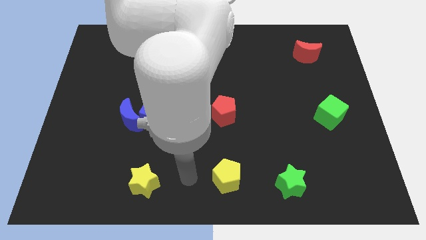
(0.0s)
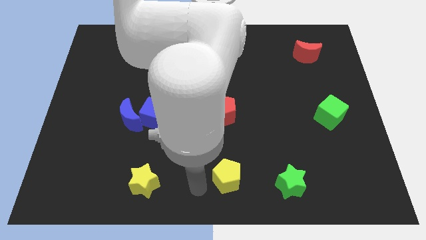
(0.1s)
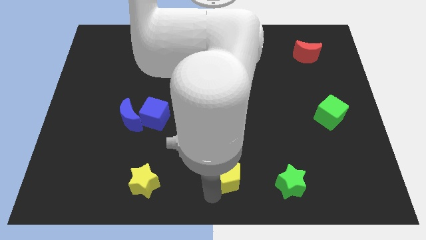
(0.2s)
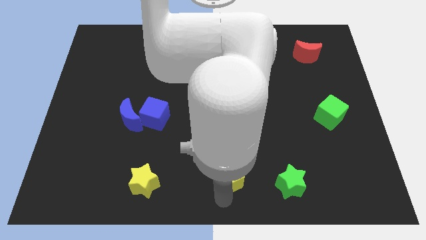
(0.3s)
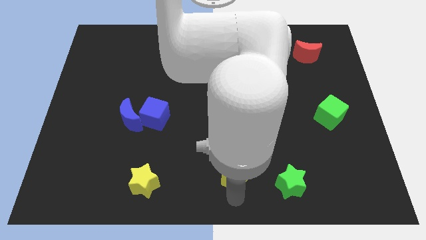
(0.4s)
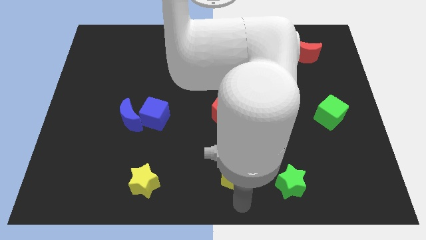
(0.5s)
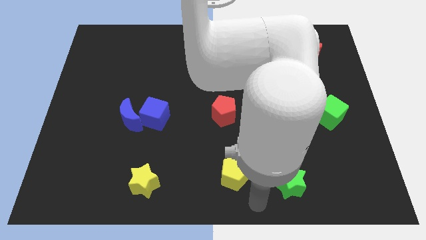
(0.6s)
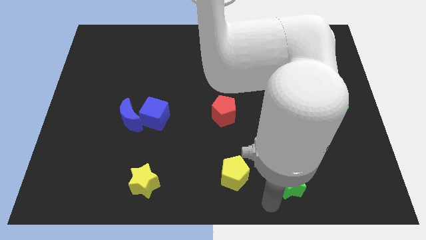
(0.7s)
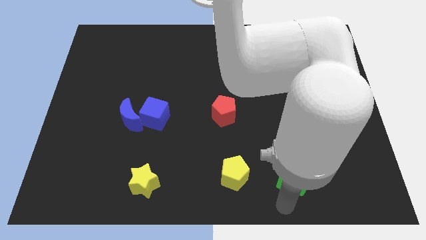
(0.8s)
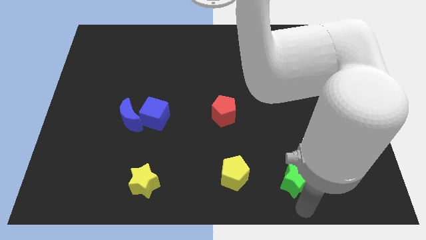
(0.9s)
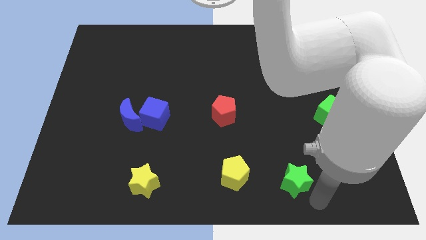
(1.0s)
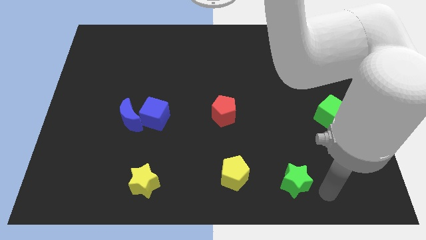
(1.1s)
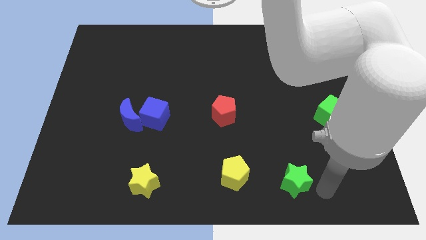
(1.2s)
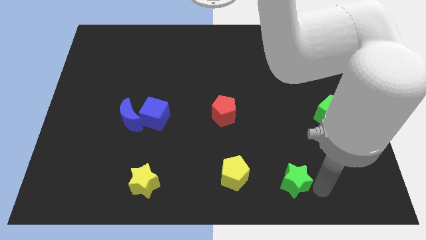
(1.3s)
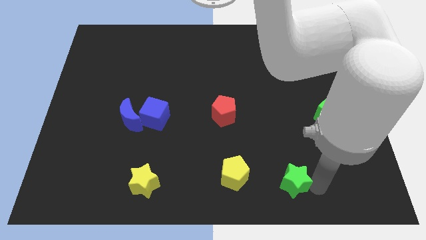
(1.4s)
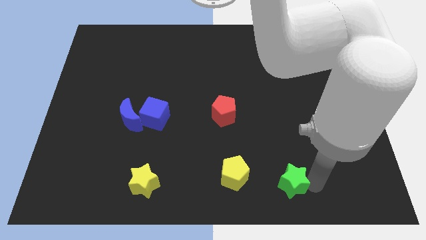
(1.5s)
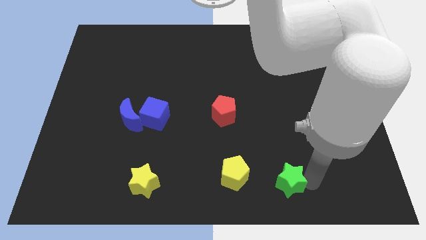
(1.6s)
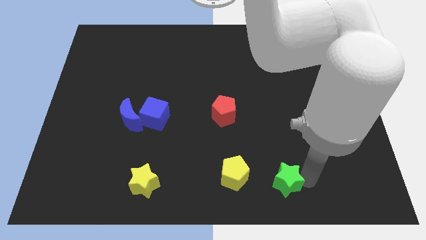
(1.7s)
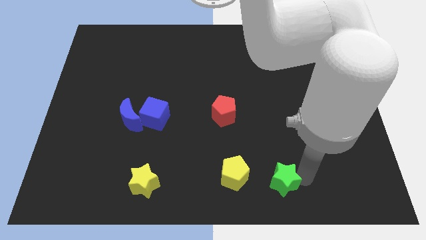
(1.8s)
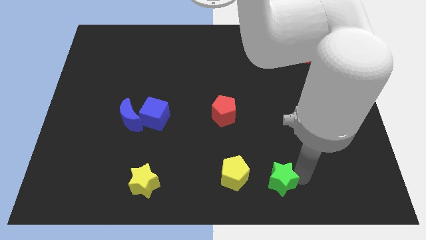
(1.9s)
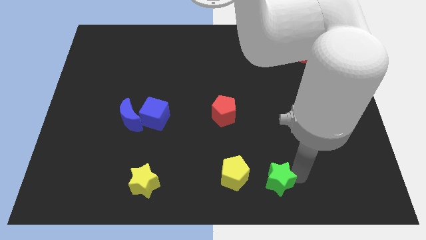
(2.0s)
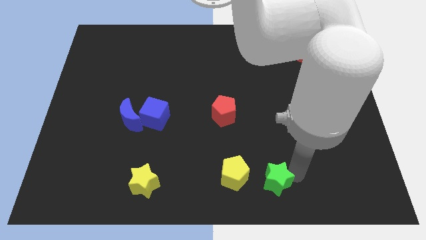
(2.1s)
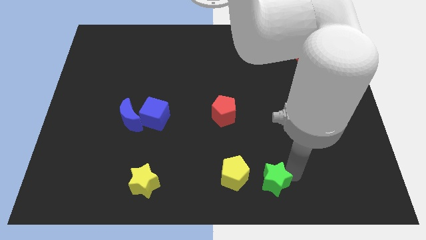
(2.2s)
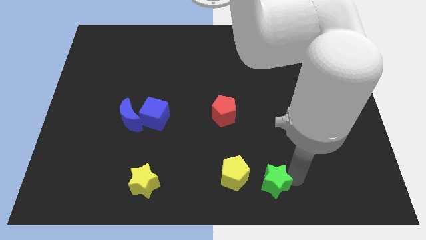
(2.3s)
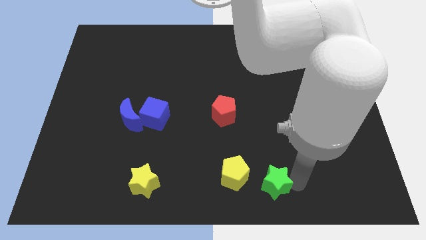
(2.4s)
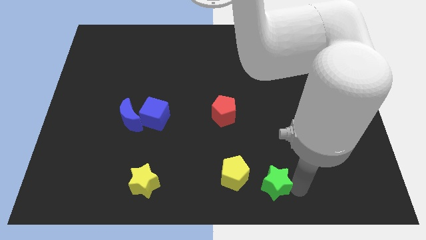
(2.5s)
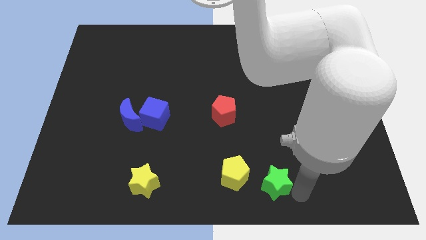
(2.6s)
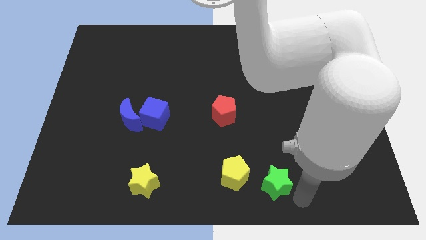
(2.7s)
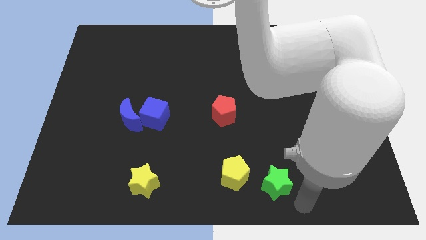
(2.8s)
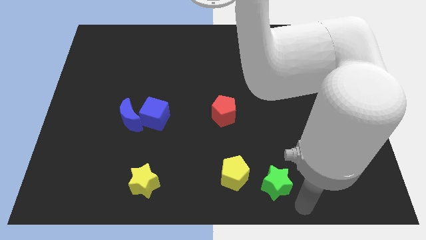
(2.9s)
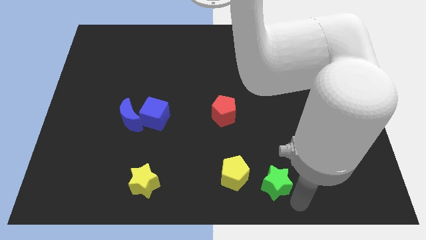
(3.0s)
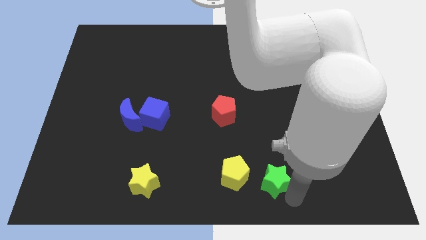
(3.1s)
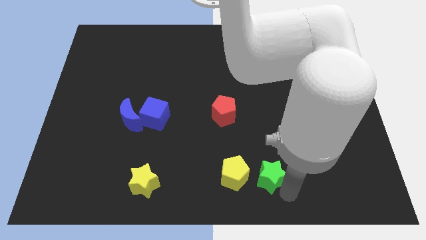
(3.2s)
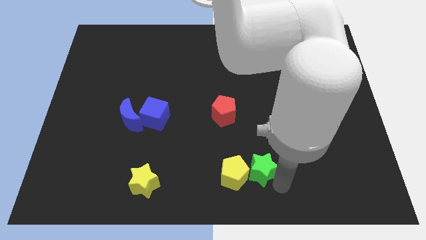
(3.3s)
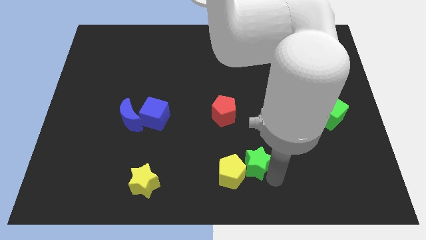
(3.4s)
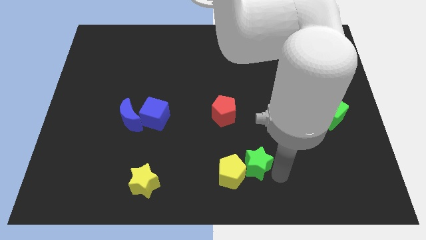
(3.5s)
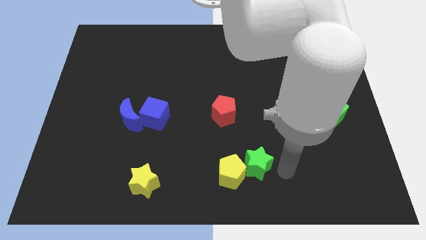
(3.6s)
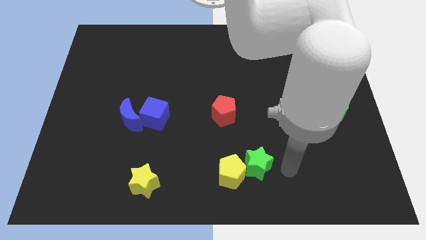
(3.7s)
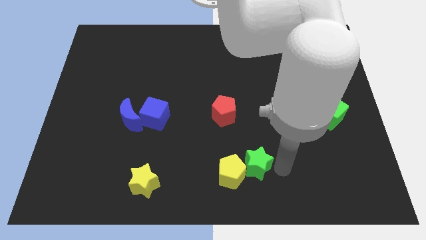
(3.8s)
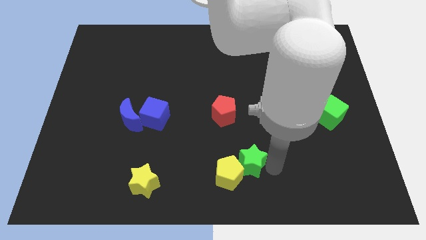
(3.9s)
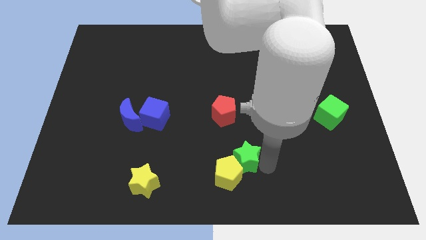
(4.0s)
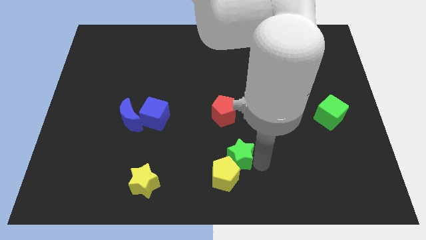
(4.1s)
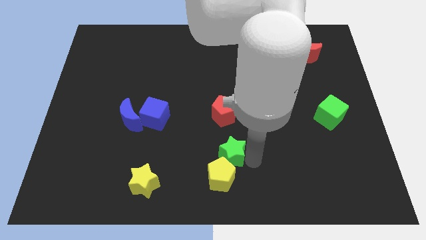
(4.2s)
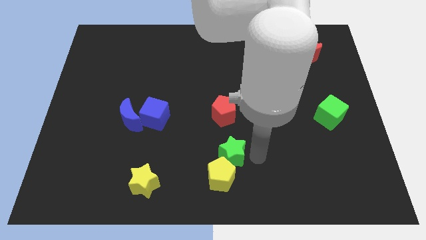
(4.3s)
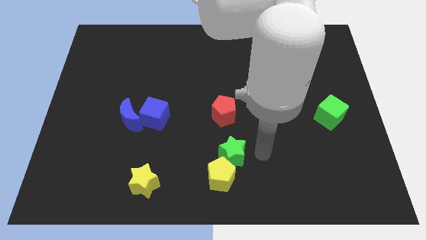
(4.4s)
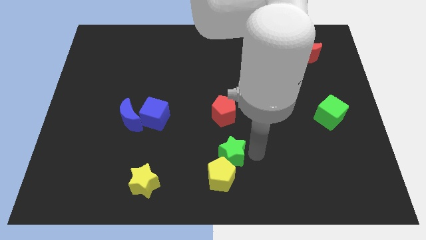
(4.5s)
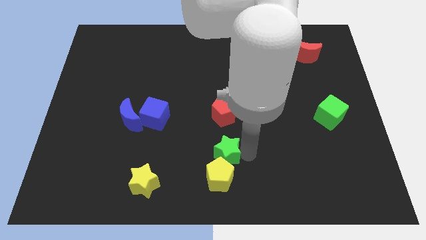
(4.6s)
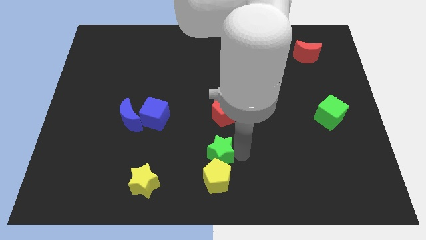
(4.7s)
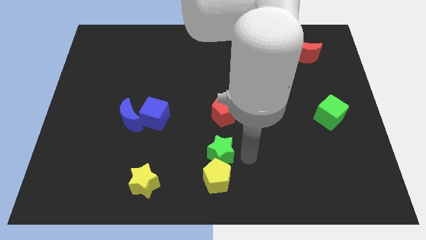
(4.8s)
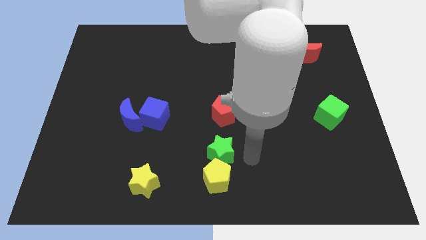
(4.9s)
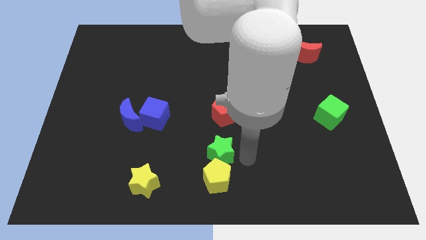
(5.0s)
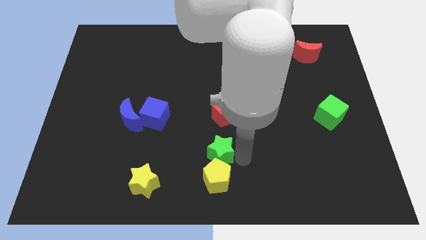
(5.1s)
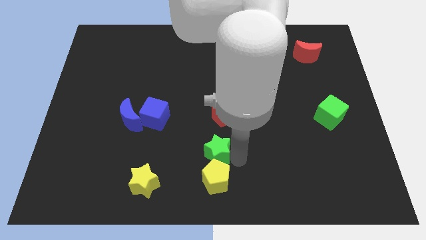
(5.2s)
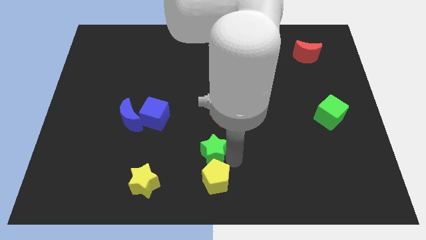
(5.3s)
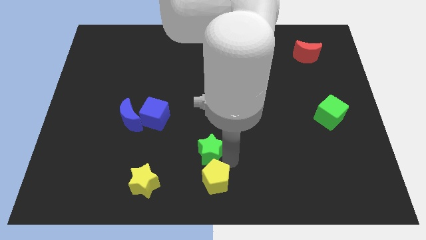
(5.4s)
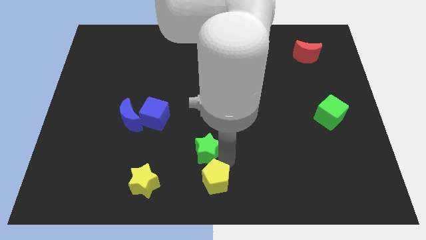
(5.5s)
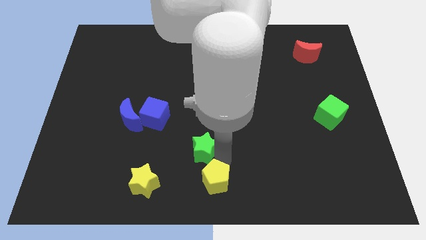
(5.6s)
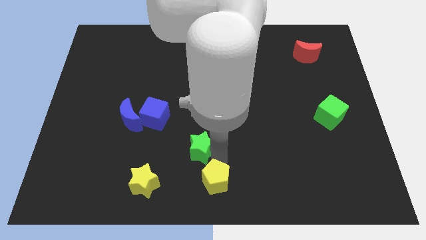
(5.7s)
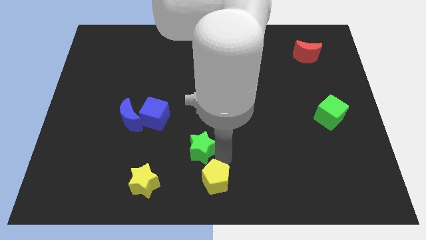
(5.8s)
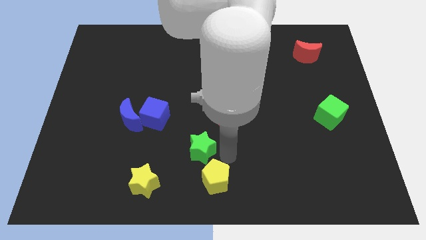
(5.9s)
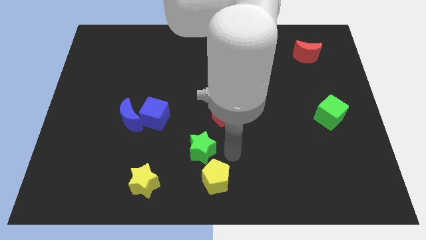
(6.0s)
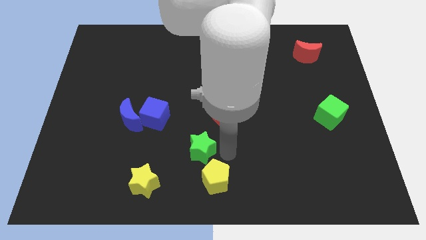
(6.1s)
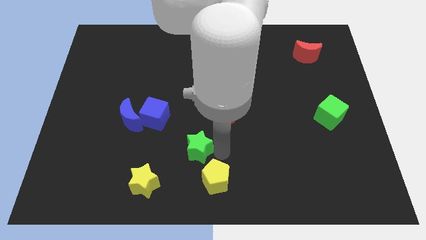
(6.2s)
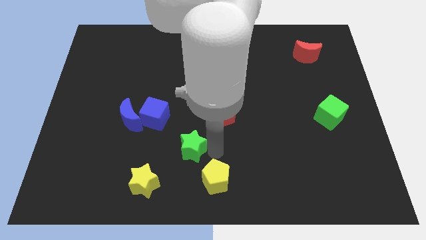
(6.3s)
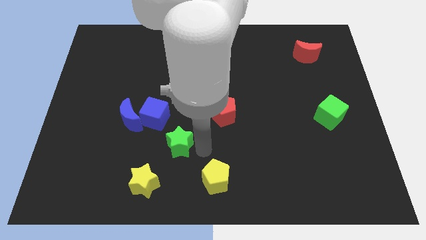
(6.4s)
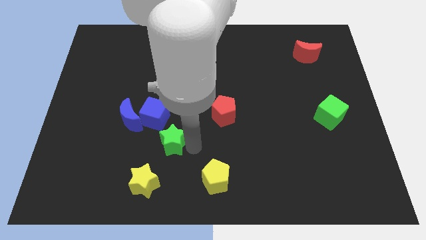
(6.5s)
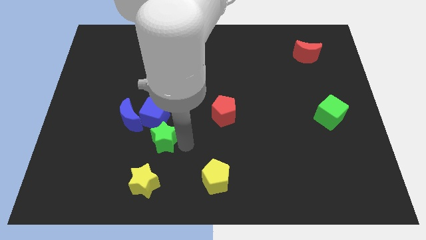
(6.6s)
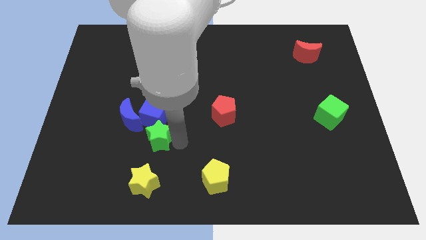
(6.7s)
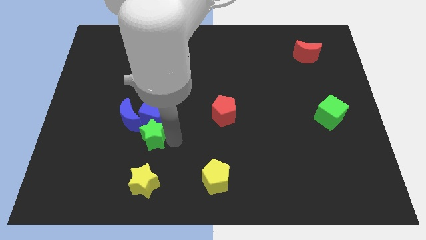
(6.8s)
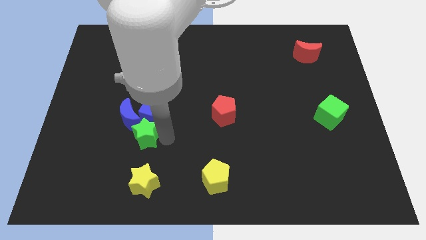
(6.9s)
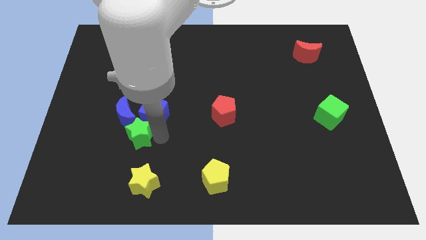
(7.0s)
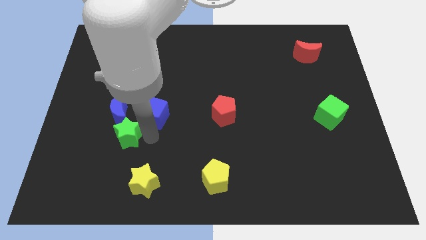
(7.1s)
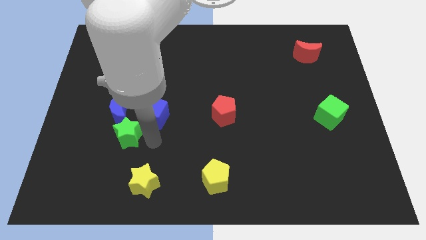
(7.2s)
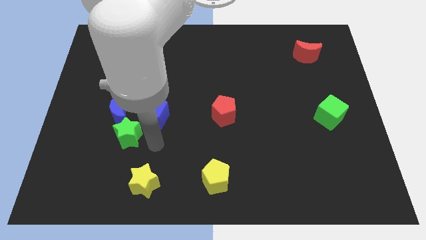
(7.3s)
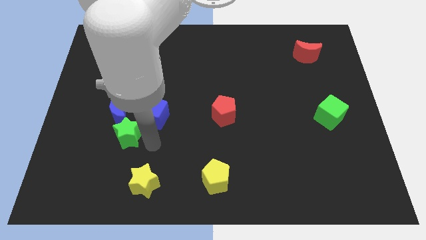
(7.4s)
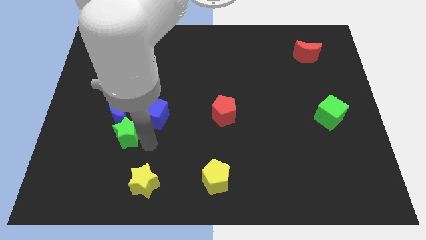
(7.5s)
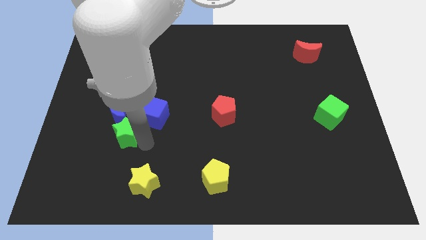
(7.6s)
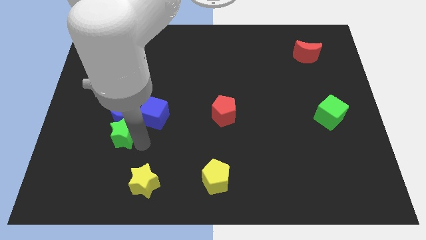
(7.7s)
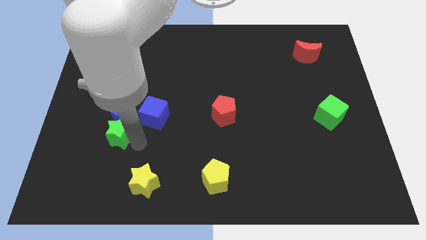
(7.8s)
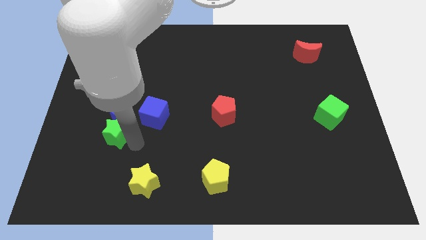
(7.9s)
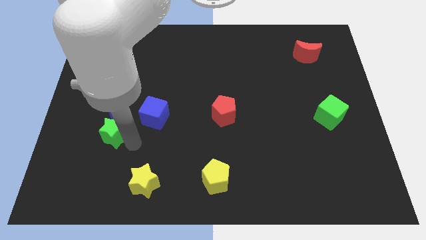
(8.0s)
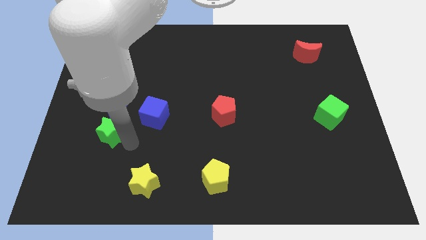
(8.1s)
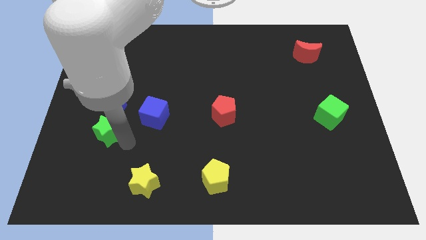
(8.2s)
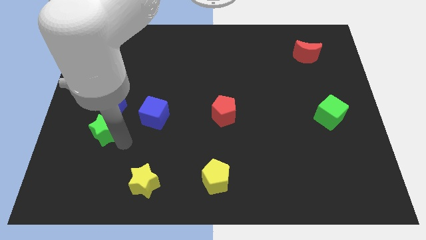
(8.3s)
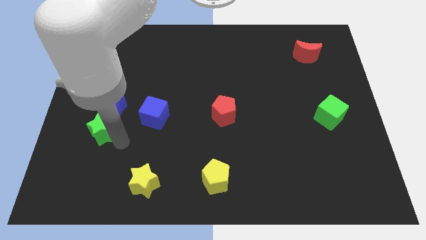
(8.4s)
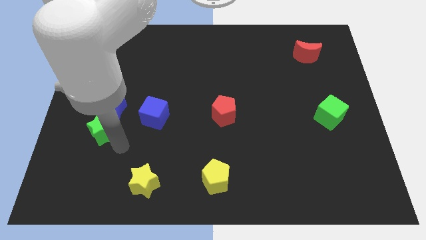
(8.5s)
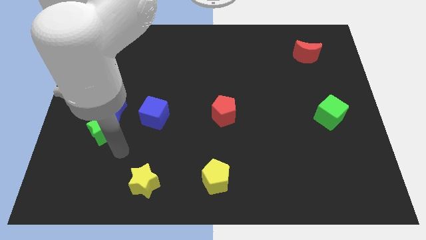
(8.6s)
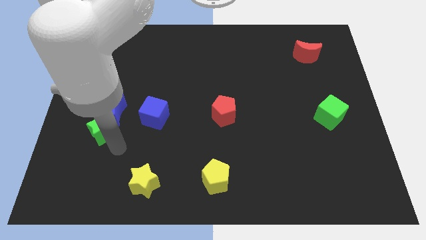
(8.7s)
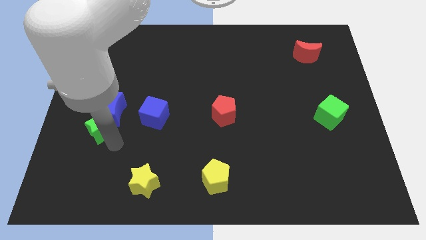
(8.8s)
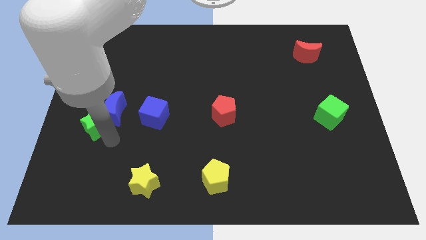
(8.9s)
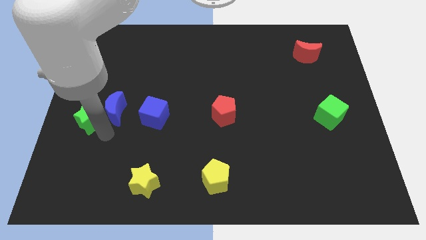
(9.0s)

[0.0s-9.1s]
move the green star to the left side
